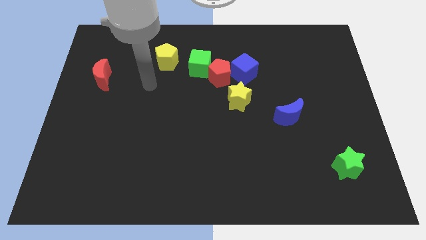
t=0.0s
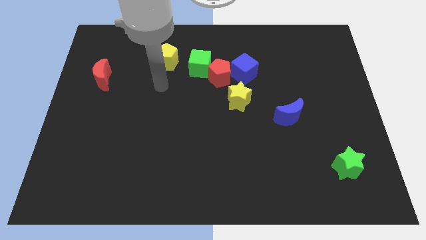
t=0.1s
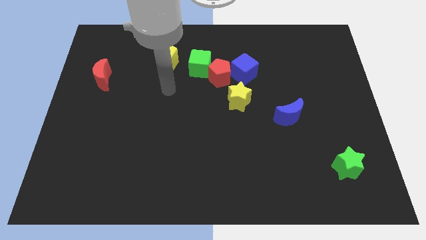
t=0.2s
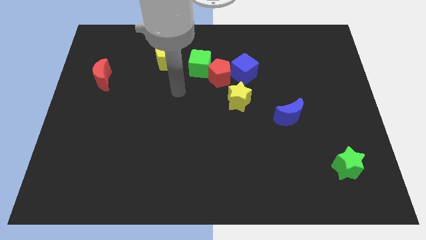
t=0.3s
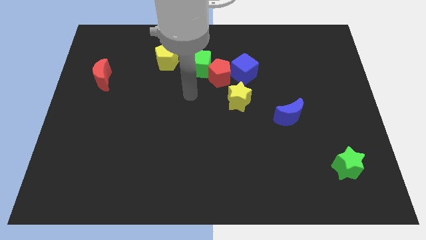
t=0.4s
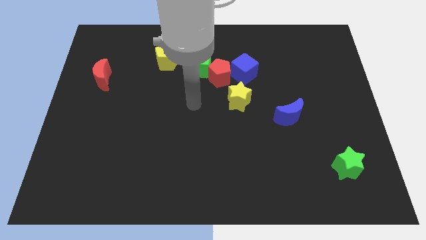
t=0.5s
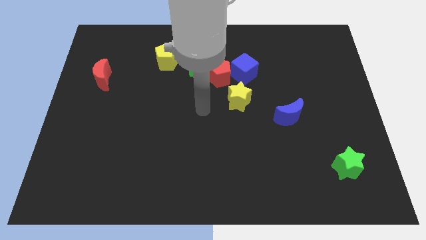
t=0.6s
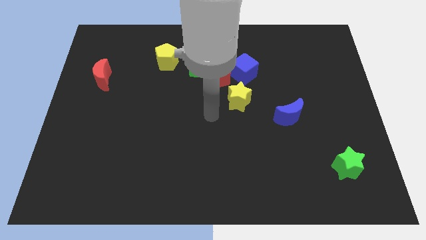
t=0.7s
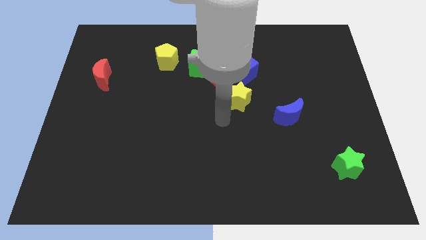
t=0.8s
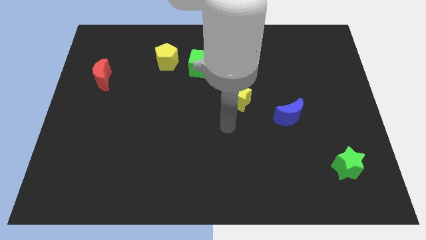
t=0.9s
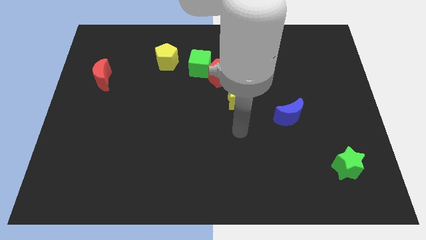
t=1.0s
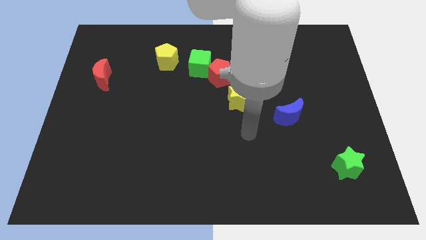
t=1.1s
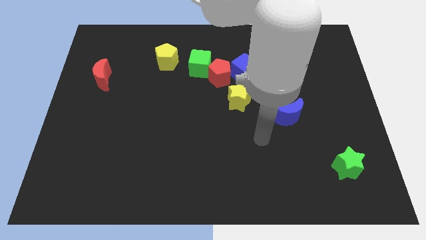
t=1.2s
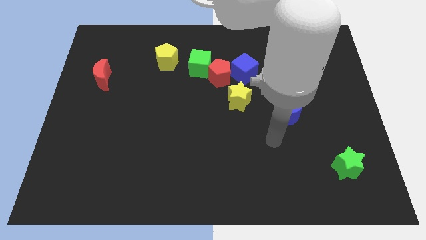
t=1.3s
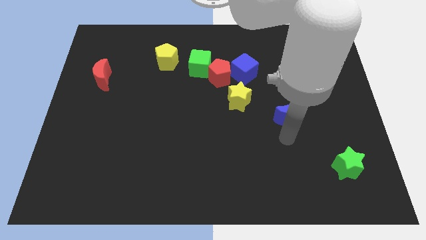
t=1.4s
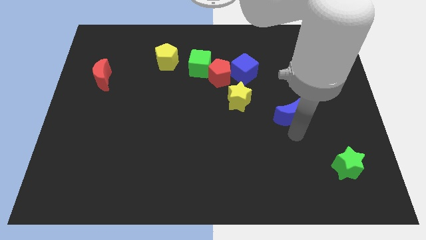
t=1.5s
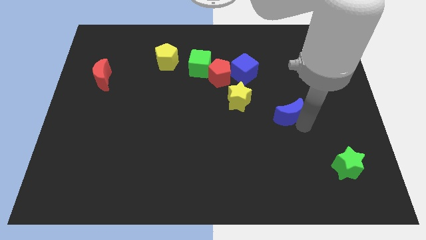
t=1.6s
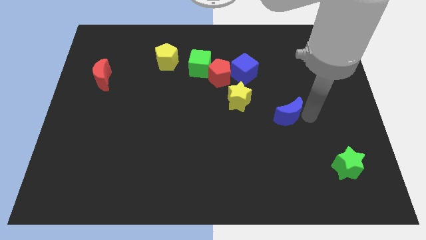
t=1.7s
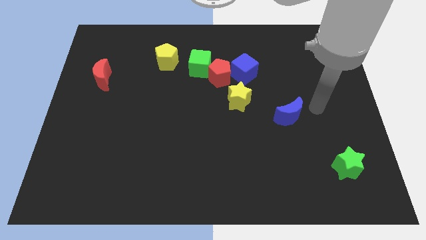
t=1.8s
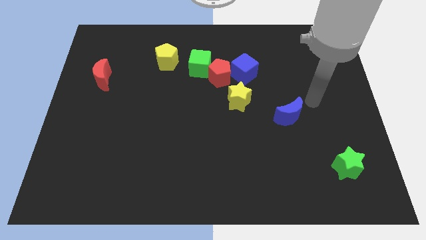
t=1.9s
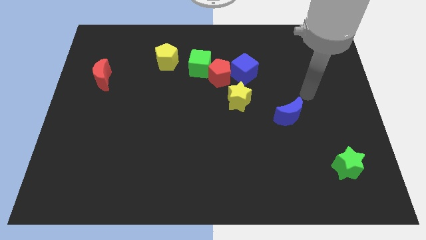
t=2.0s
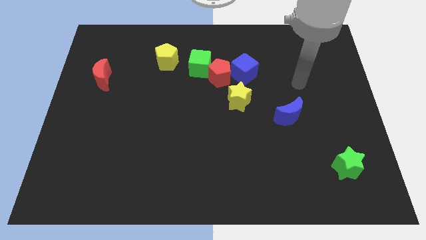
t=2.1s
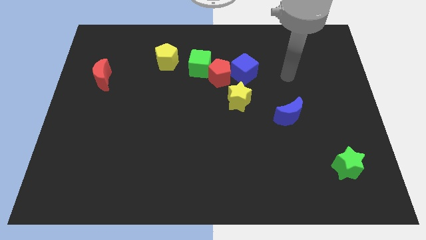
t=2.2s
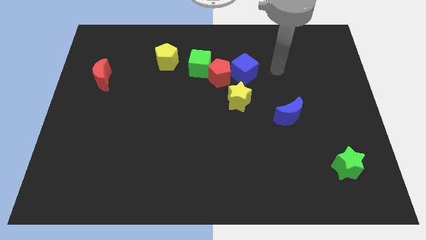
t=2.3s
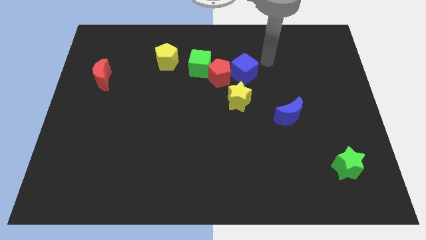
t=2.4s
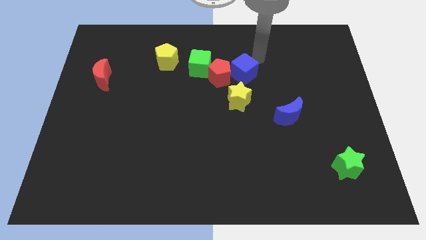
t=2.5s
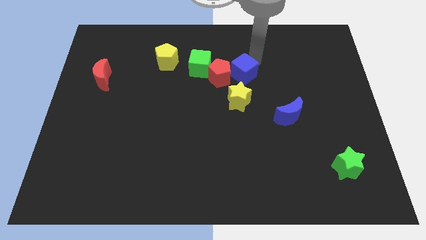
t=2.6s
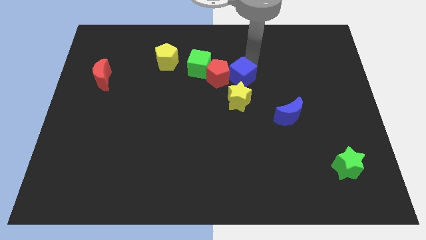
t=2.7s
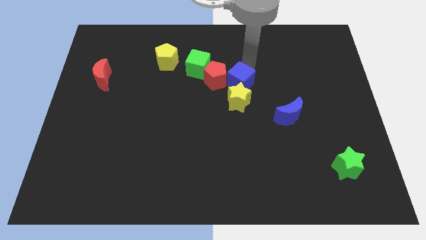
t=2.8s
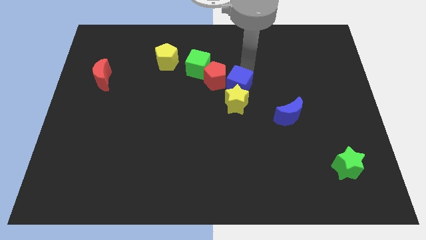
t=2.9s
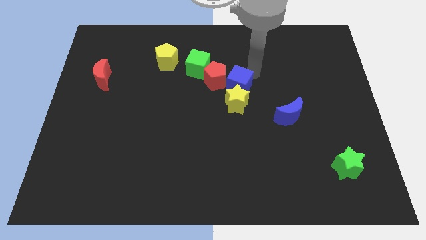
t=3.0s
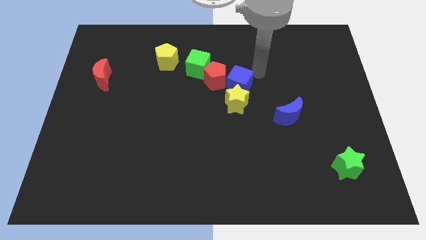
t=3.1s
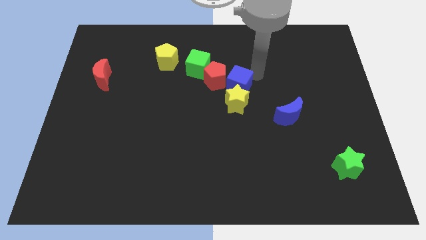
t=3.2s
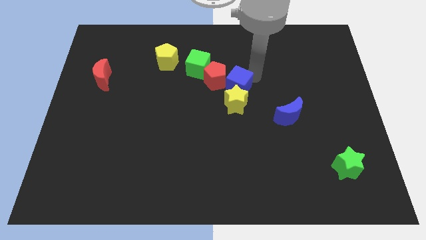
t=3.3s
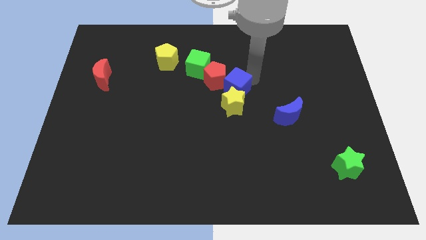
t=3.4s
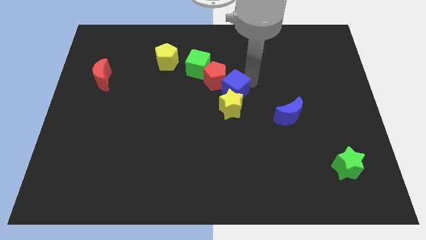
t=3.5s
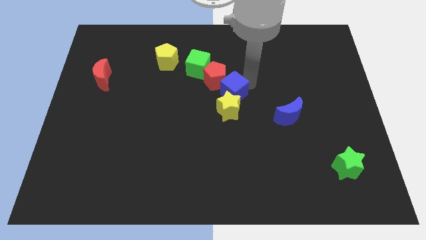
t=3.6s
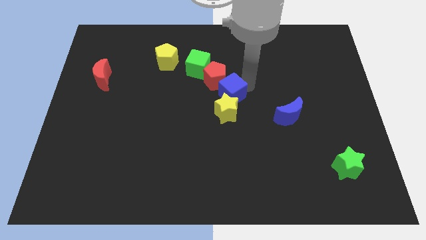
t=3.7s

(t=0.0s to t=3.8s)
move the blue cube diagonally downwards and to the left somewhat

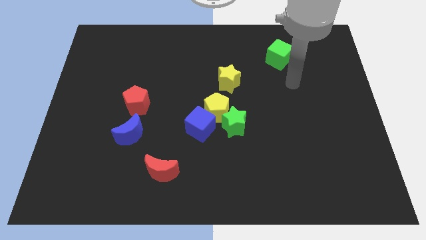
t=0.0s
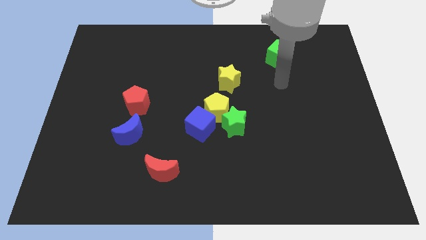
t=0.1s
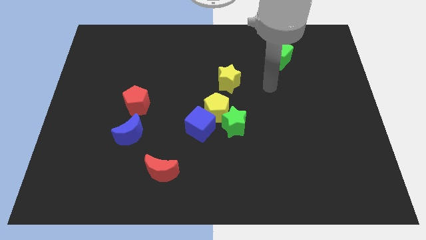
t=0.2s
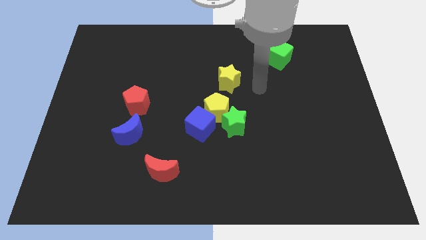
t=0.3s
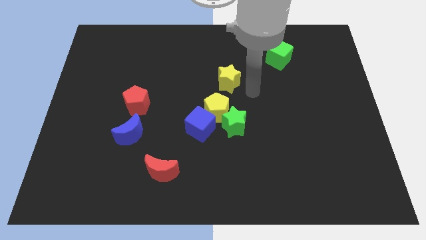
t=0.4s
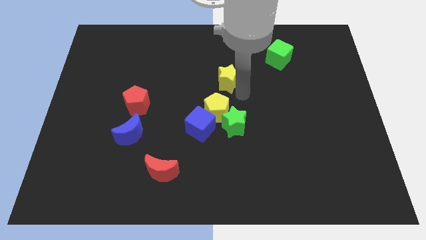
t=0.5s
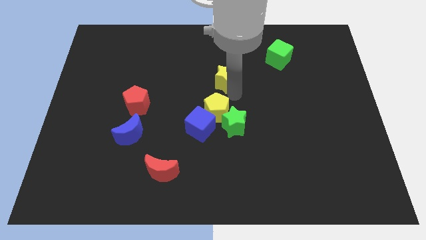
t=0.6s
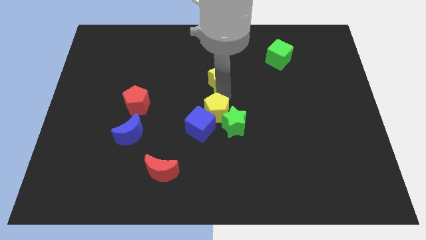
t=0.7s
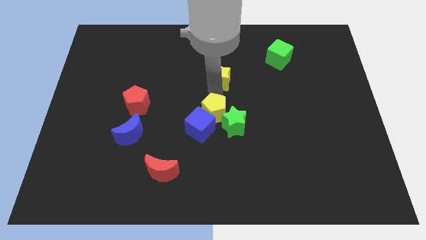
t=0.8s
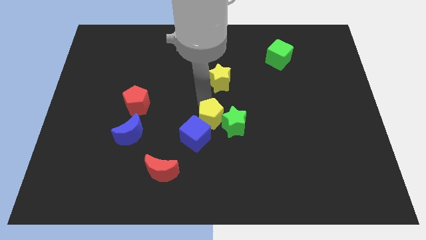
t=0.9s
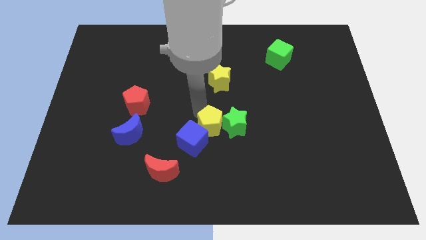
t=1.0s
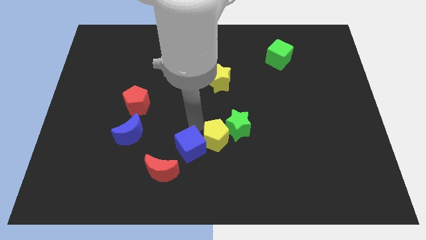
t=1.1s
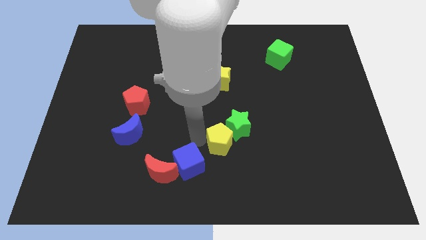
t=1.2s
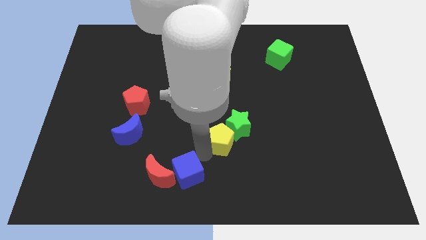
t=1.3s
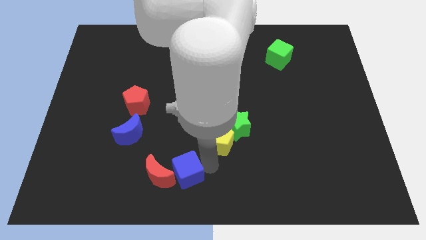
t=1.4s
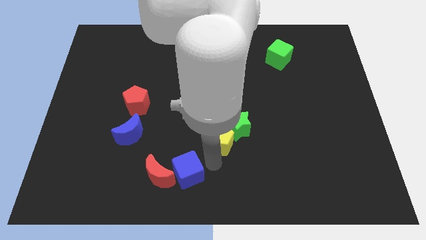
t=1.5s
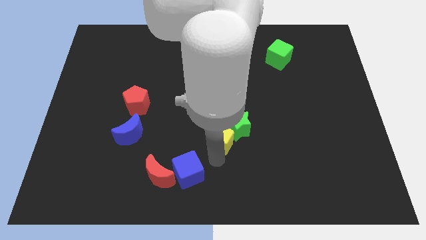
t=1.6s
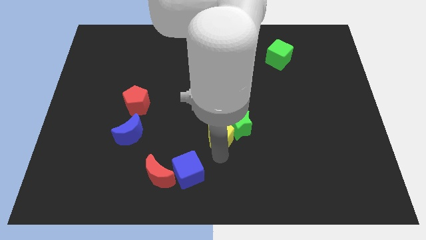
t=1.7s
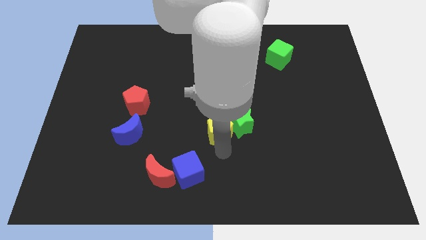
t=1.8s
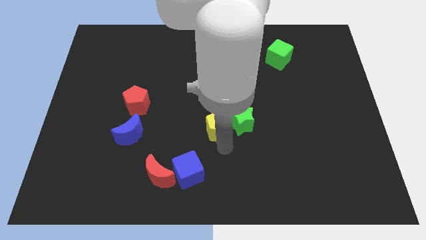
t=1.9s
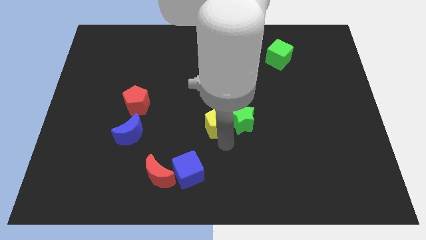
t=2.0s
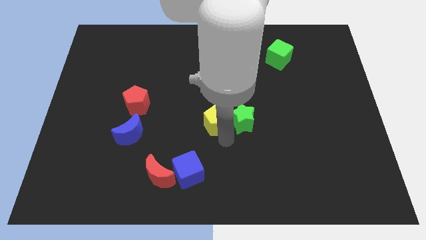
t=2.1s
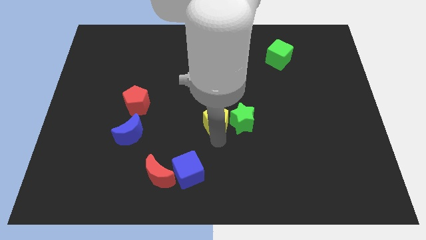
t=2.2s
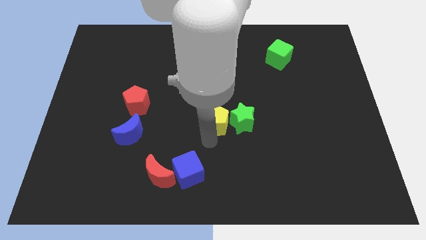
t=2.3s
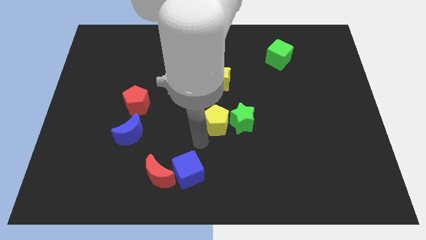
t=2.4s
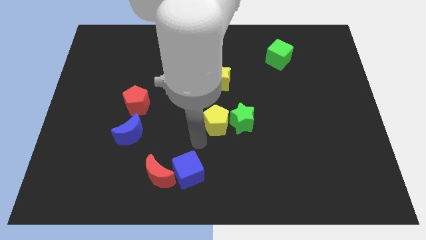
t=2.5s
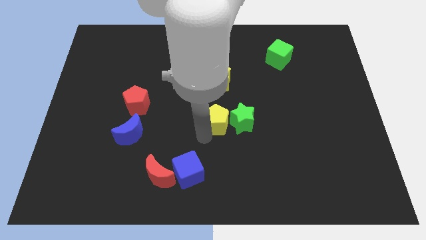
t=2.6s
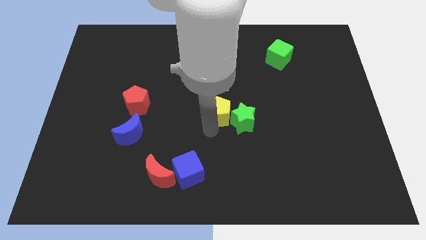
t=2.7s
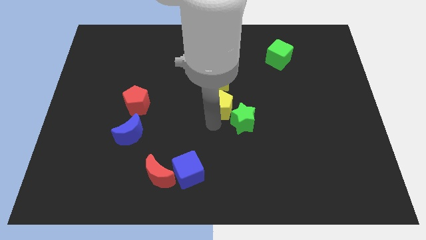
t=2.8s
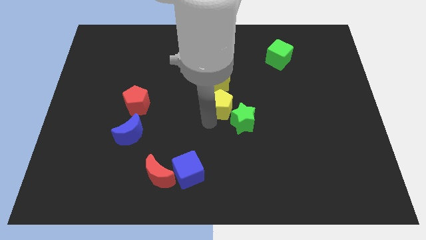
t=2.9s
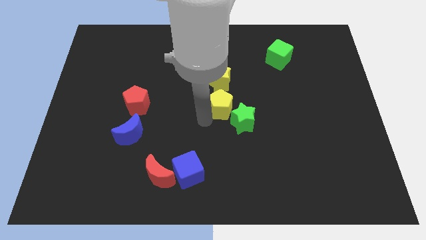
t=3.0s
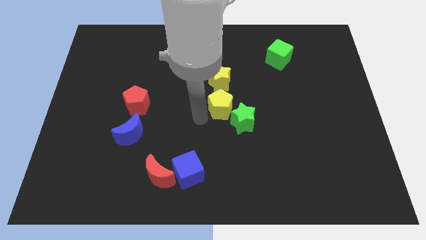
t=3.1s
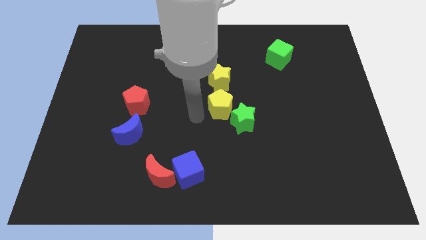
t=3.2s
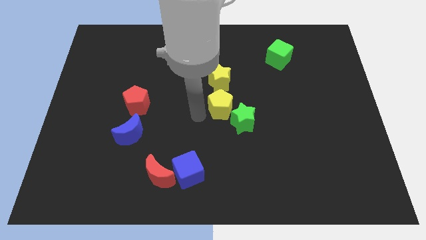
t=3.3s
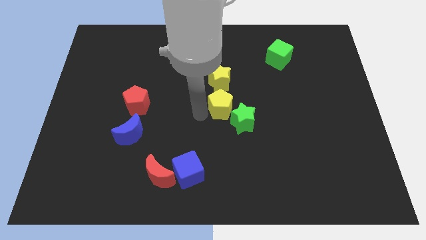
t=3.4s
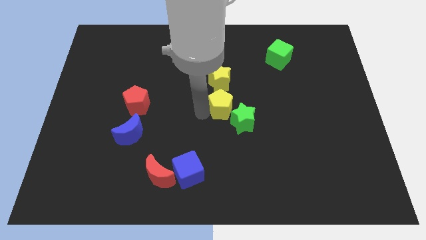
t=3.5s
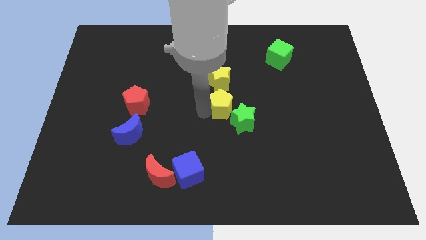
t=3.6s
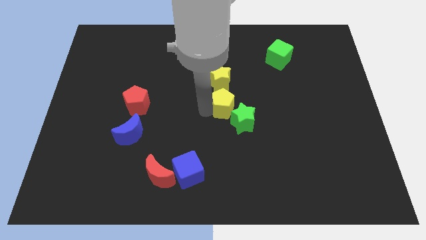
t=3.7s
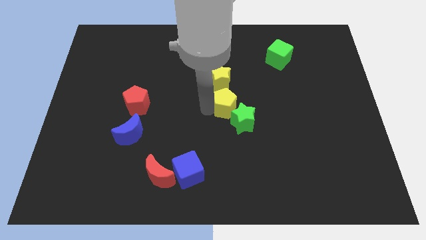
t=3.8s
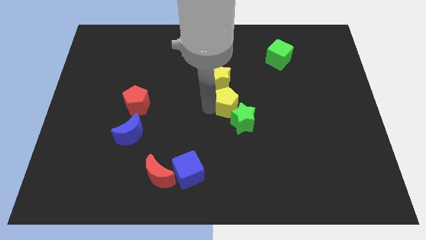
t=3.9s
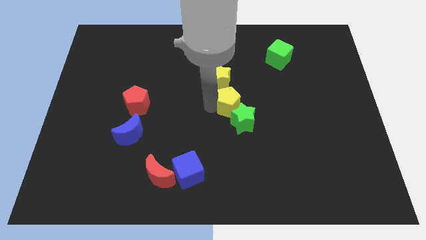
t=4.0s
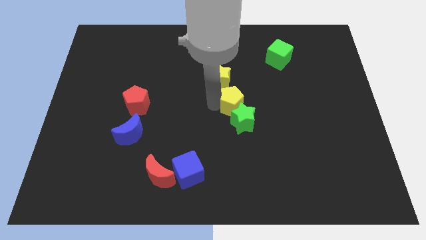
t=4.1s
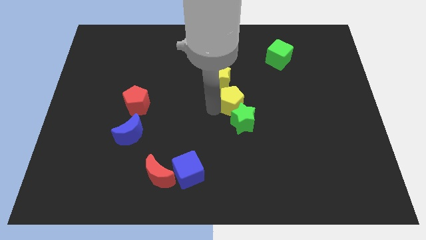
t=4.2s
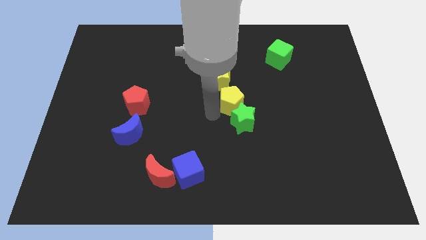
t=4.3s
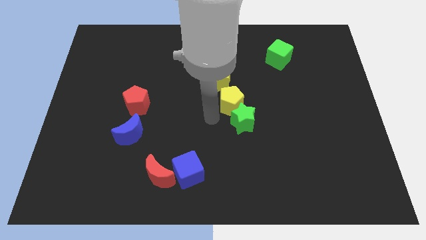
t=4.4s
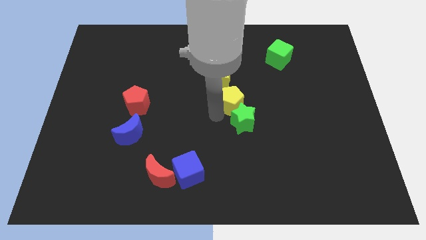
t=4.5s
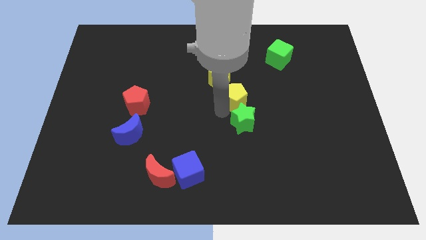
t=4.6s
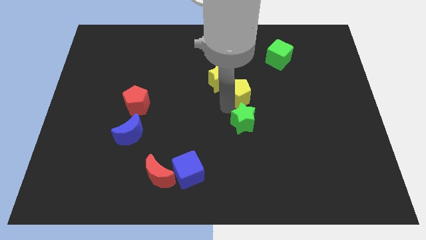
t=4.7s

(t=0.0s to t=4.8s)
slide the yellow pentagon somewhat up and then right
